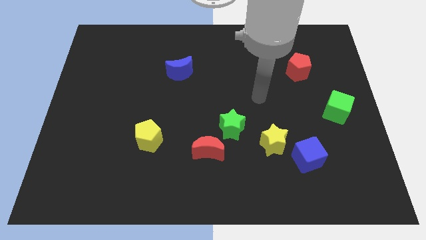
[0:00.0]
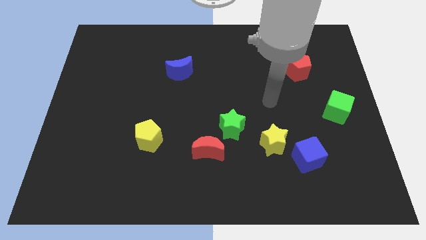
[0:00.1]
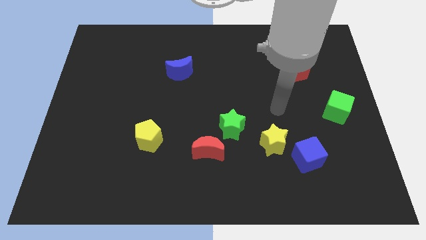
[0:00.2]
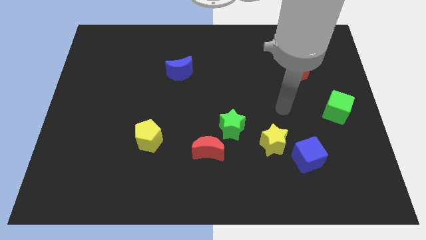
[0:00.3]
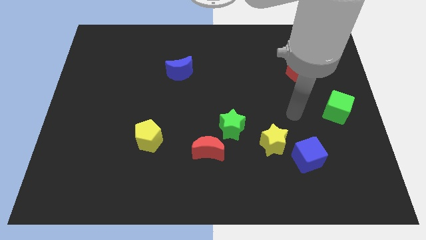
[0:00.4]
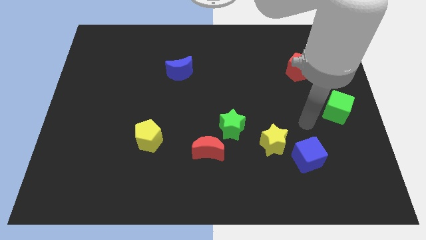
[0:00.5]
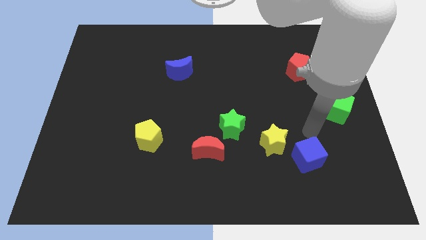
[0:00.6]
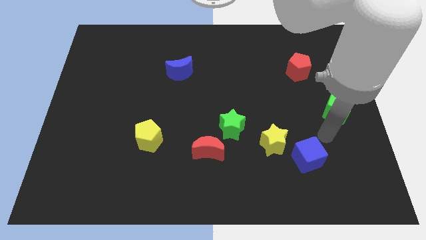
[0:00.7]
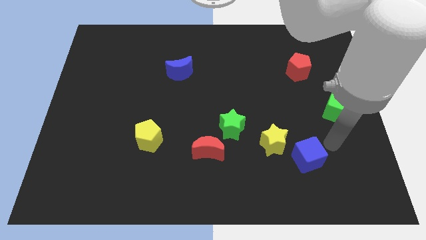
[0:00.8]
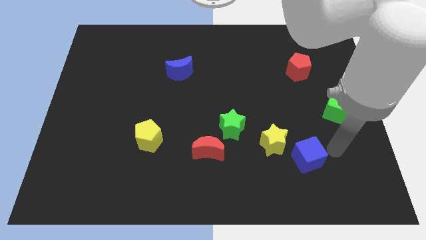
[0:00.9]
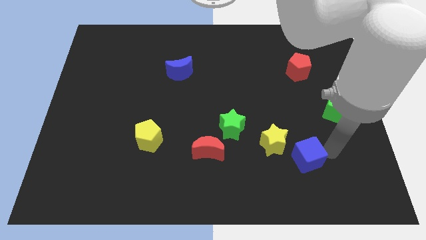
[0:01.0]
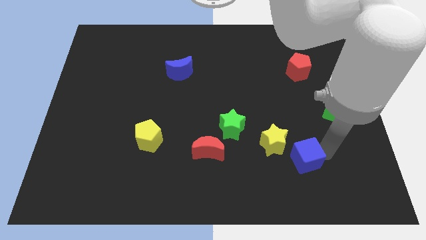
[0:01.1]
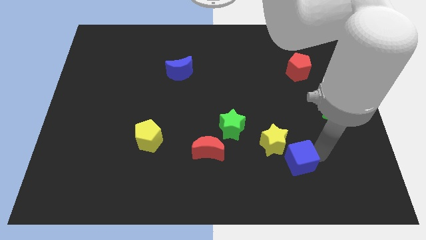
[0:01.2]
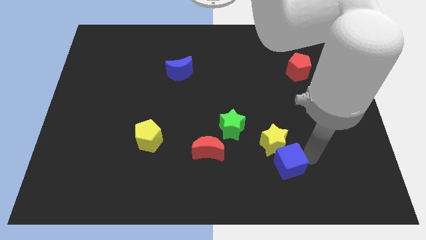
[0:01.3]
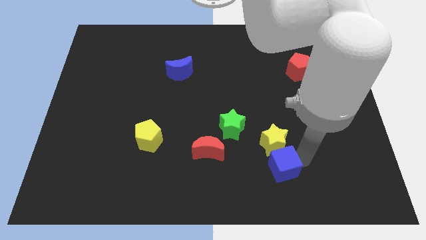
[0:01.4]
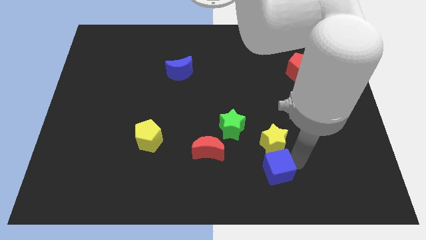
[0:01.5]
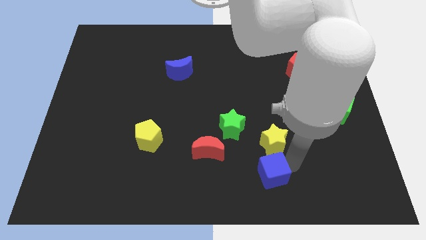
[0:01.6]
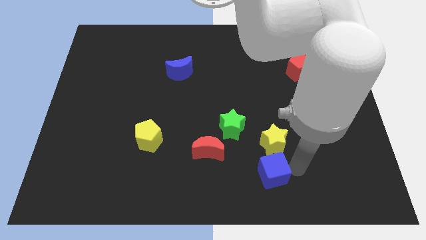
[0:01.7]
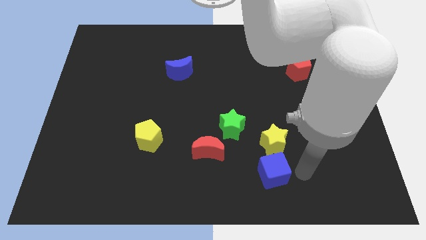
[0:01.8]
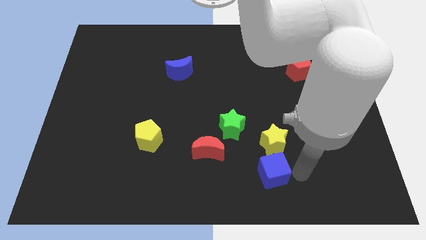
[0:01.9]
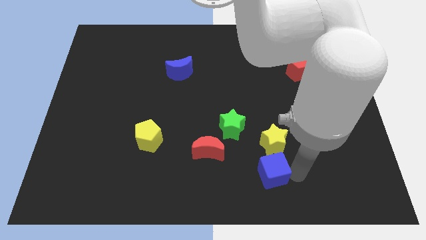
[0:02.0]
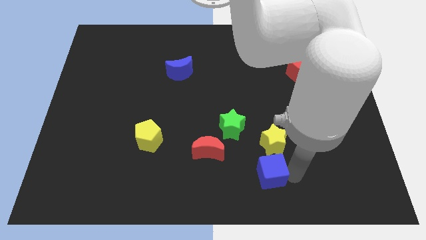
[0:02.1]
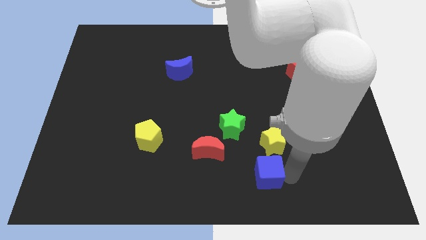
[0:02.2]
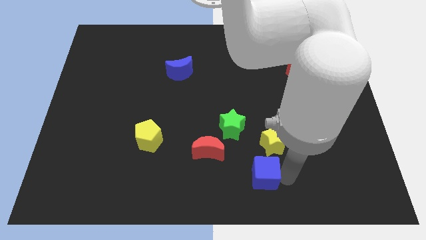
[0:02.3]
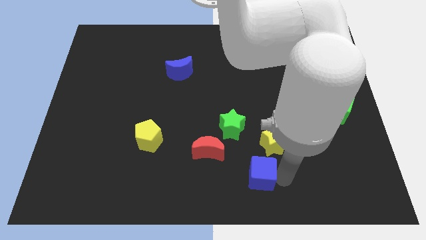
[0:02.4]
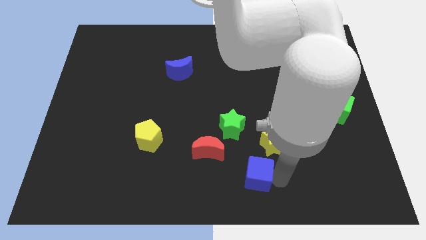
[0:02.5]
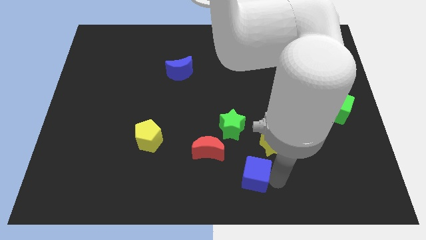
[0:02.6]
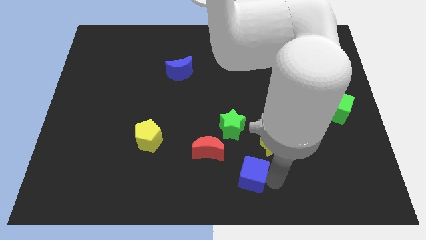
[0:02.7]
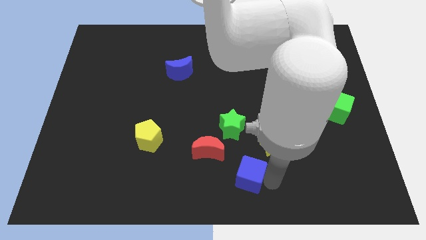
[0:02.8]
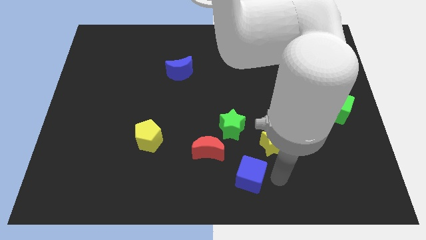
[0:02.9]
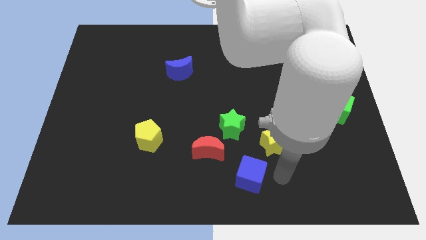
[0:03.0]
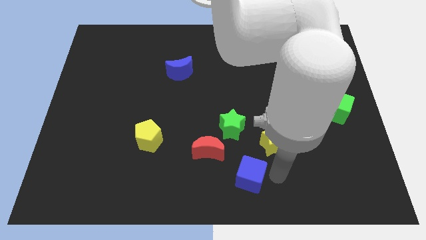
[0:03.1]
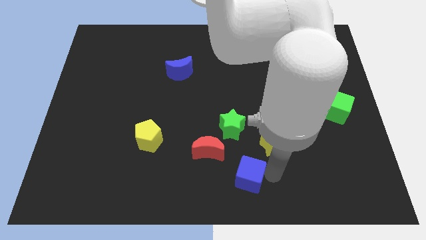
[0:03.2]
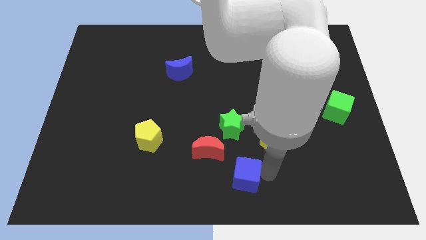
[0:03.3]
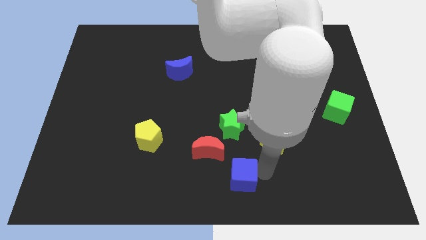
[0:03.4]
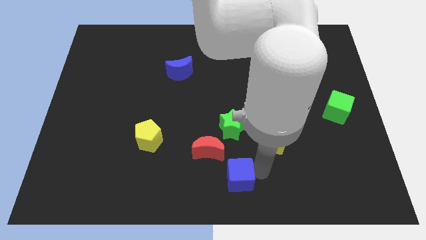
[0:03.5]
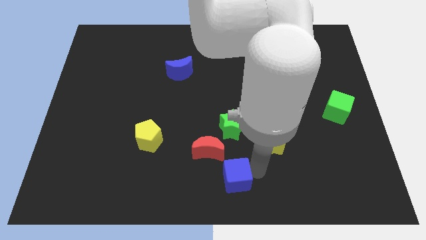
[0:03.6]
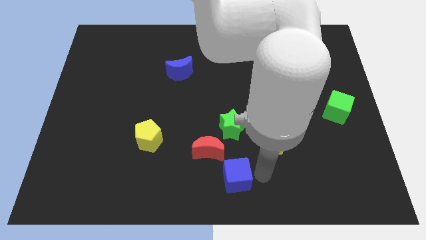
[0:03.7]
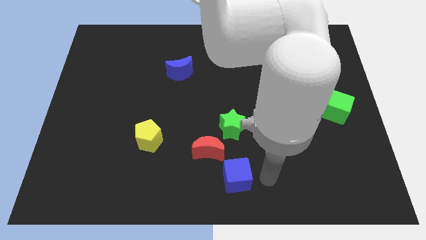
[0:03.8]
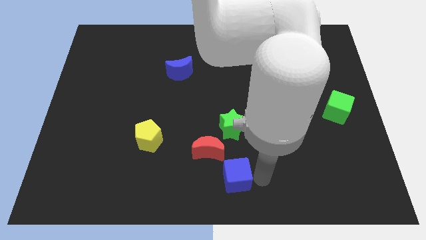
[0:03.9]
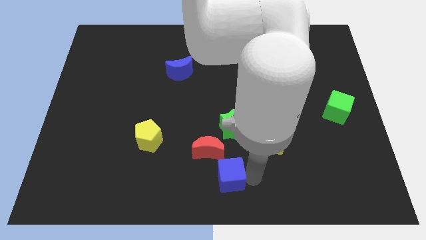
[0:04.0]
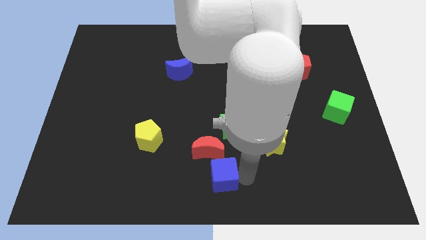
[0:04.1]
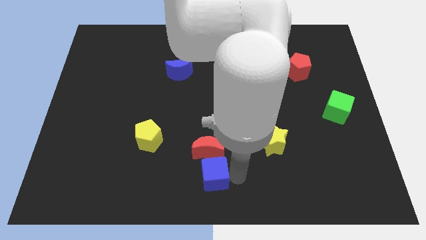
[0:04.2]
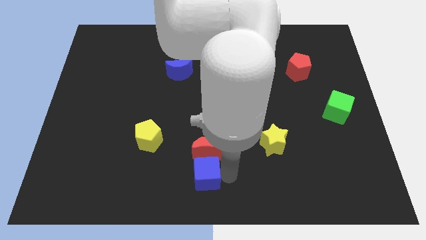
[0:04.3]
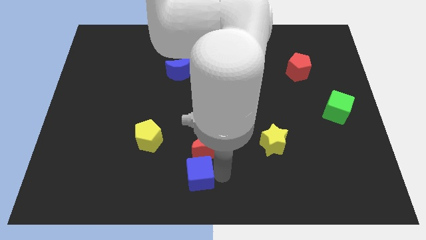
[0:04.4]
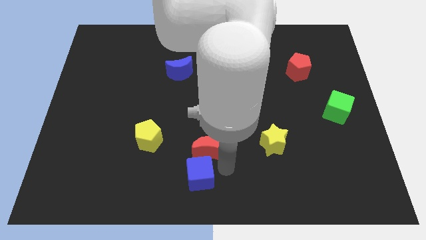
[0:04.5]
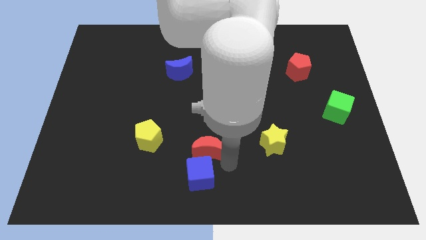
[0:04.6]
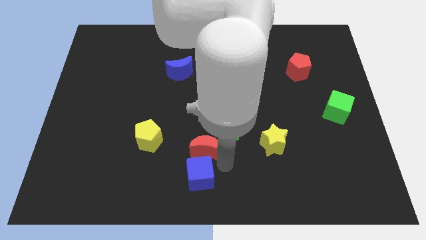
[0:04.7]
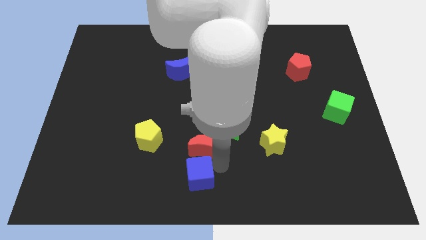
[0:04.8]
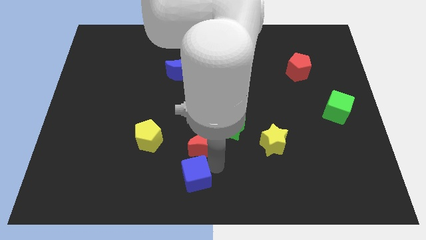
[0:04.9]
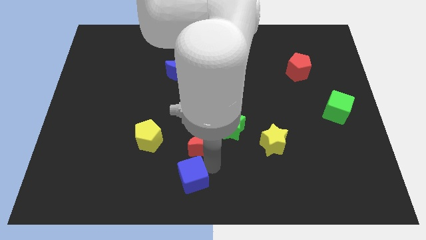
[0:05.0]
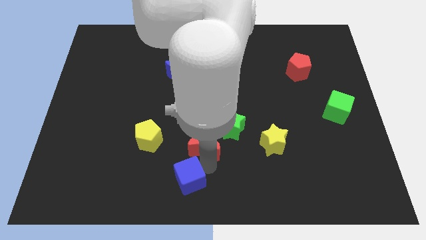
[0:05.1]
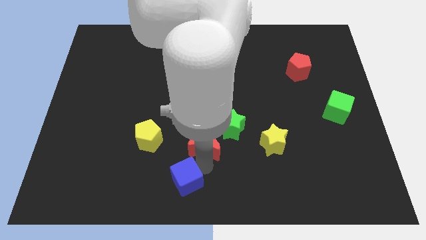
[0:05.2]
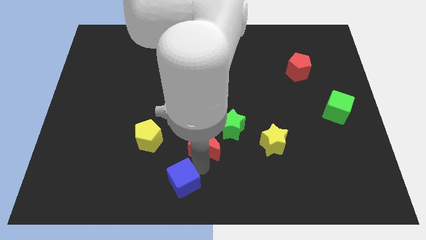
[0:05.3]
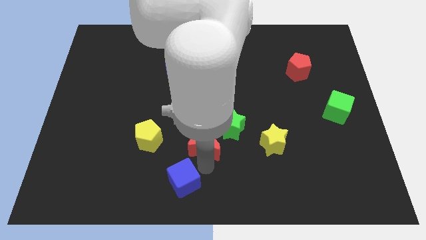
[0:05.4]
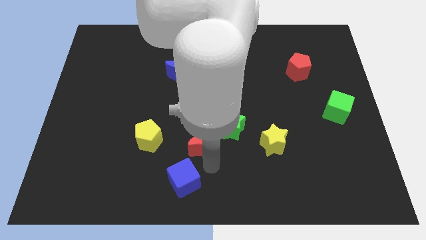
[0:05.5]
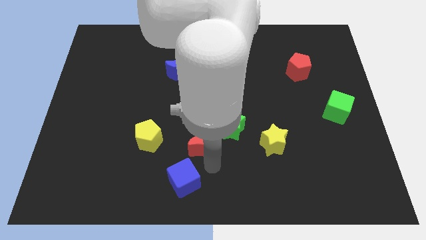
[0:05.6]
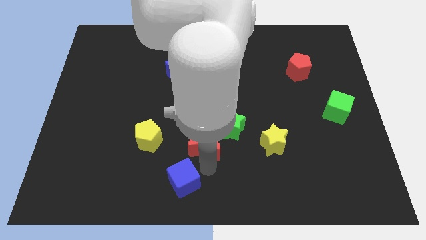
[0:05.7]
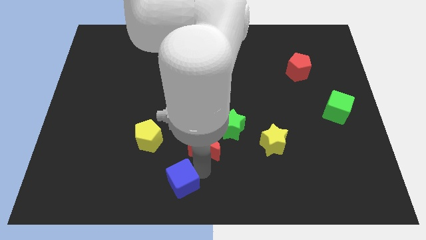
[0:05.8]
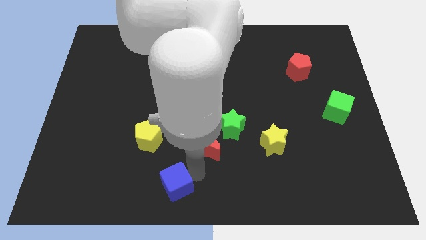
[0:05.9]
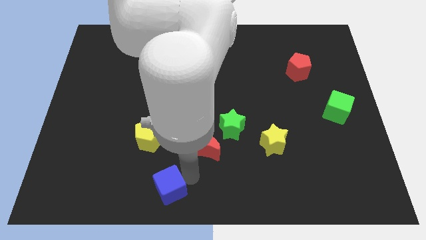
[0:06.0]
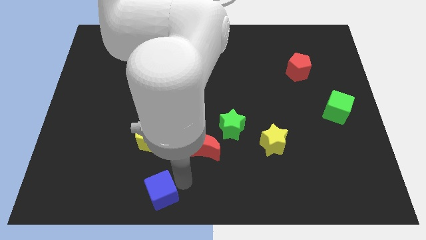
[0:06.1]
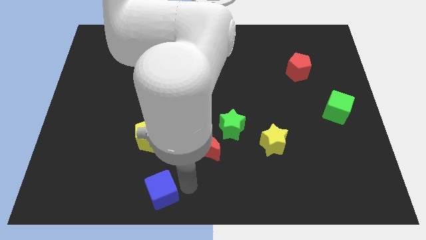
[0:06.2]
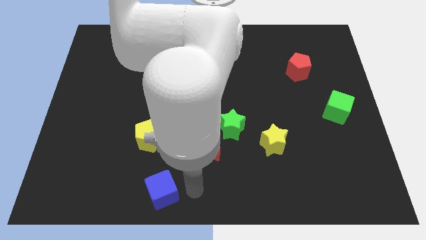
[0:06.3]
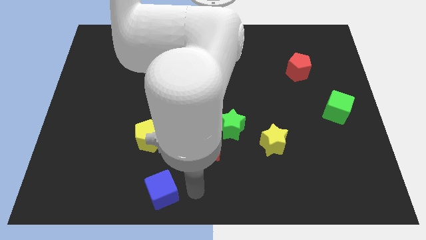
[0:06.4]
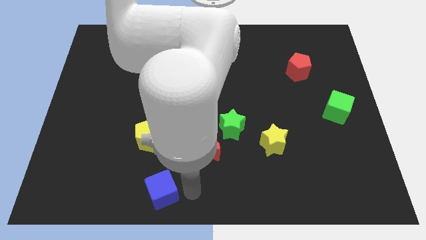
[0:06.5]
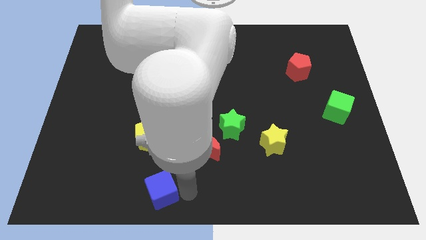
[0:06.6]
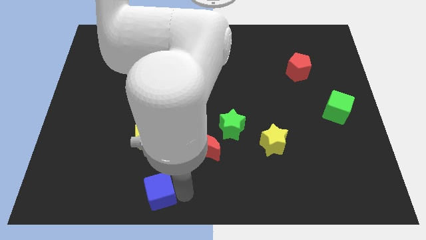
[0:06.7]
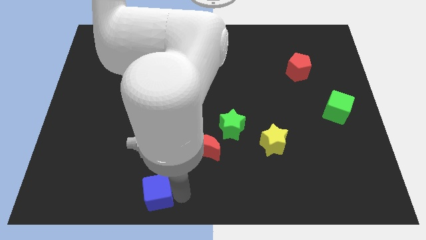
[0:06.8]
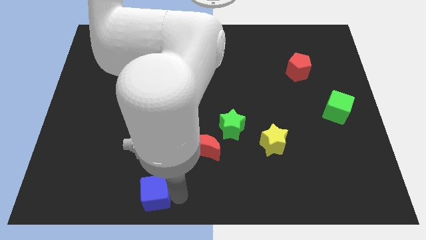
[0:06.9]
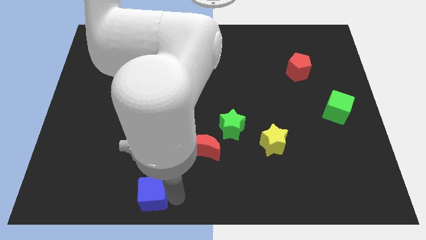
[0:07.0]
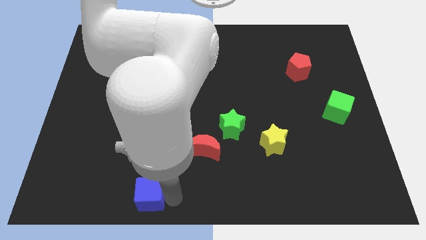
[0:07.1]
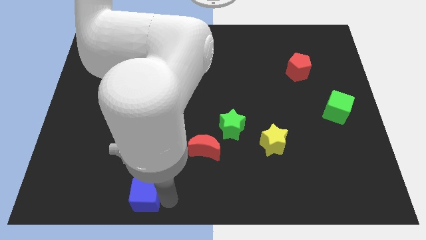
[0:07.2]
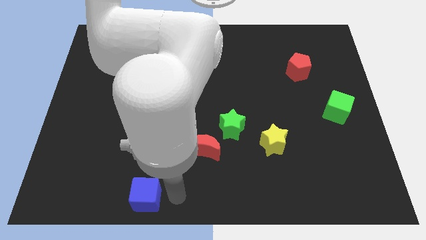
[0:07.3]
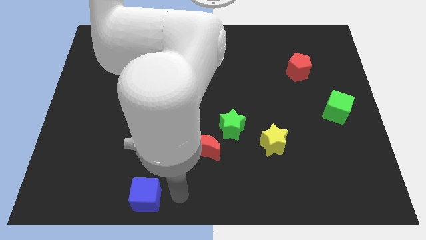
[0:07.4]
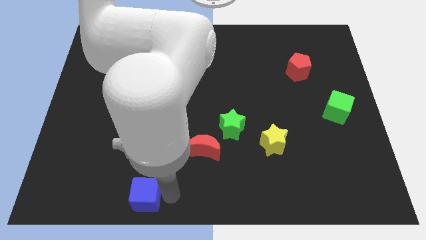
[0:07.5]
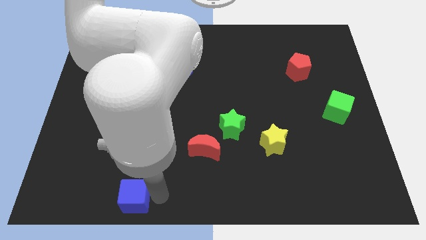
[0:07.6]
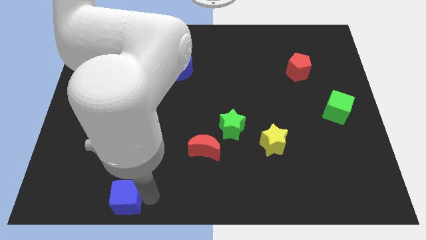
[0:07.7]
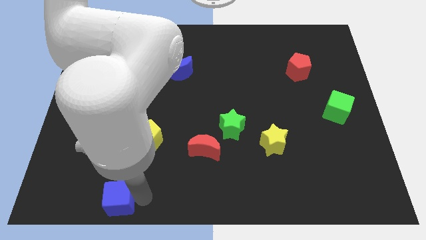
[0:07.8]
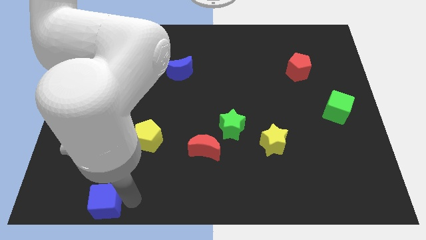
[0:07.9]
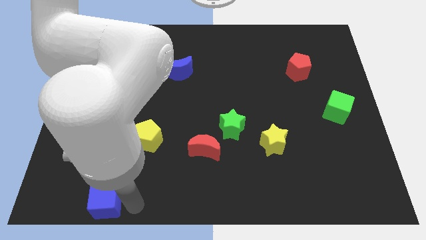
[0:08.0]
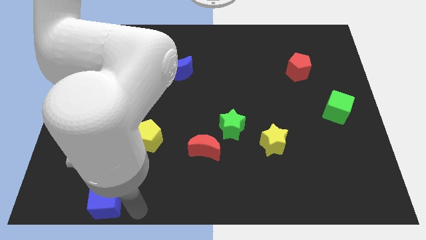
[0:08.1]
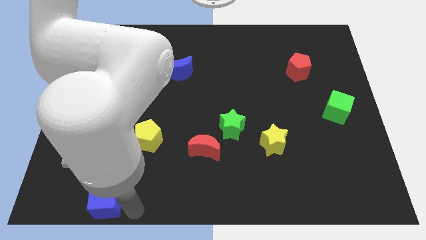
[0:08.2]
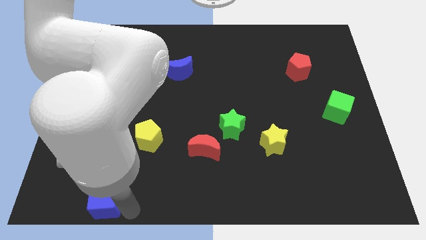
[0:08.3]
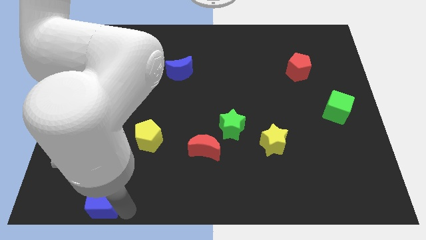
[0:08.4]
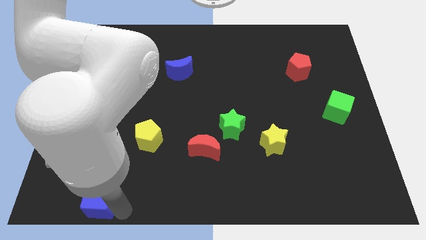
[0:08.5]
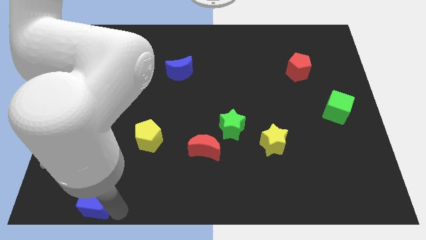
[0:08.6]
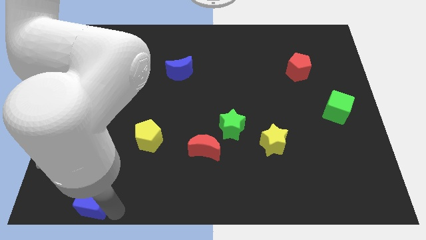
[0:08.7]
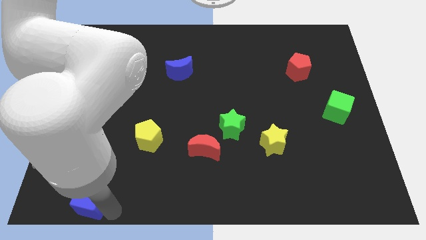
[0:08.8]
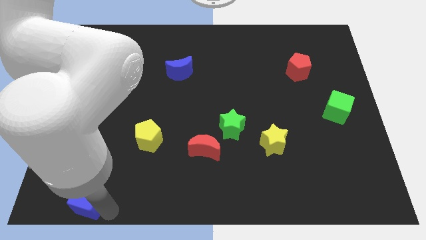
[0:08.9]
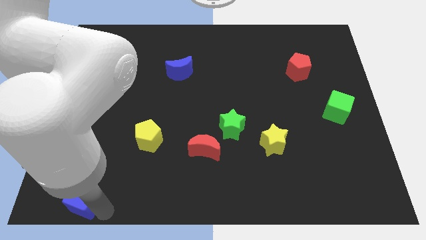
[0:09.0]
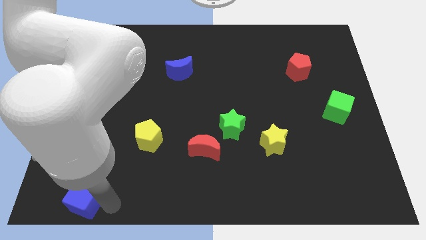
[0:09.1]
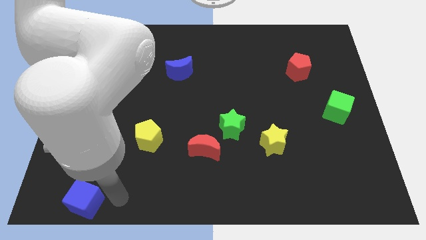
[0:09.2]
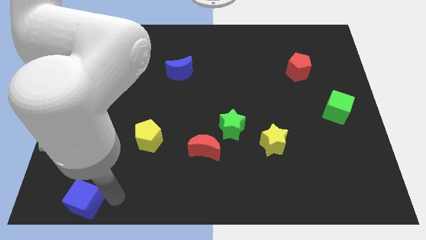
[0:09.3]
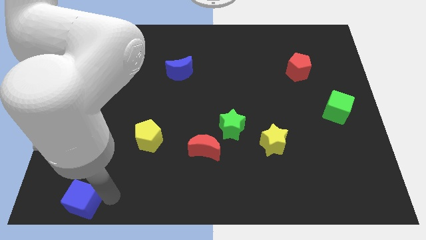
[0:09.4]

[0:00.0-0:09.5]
move the blue cube to the bottom left
